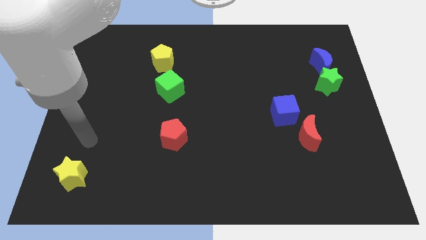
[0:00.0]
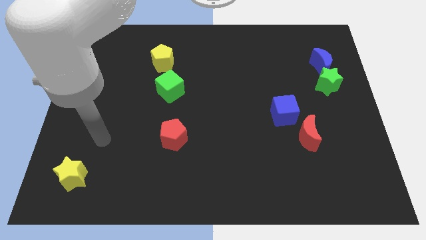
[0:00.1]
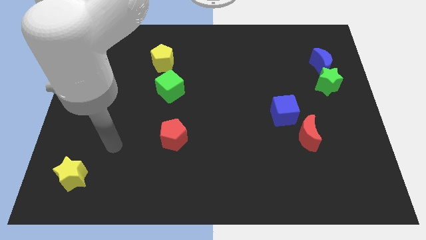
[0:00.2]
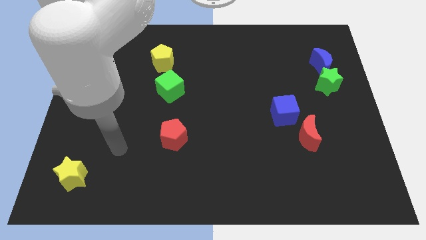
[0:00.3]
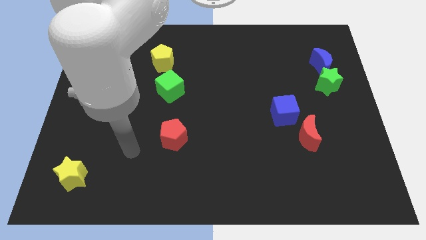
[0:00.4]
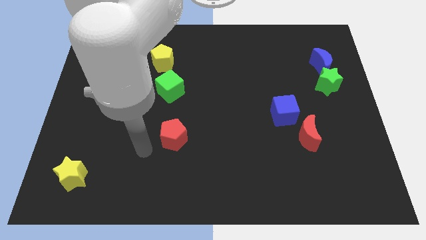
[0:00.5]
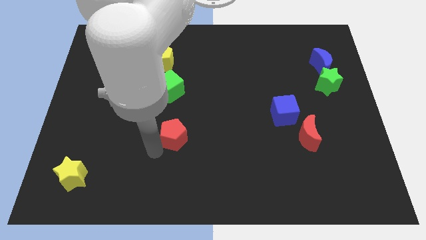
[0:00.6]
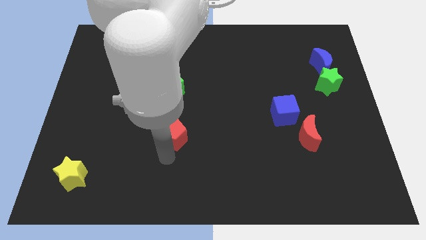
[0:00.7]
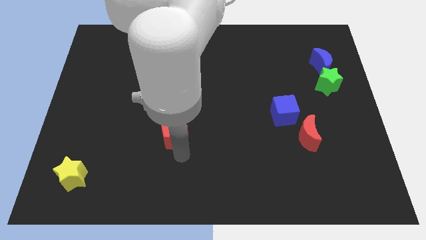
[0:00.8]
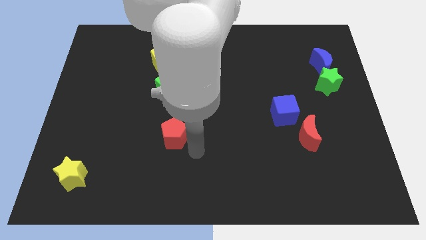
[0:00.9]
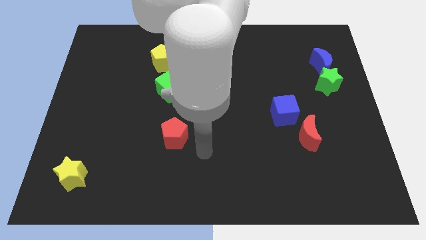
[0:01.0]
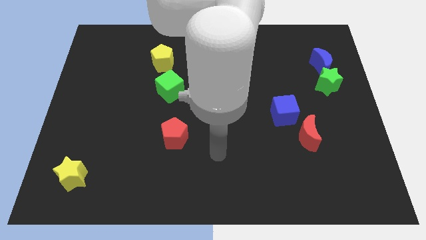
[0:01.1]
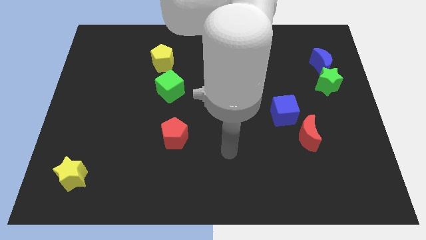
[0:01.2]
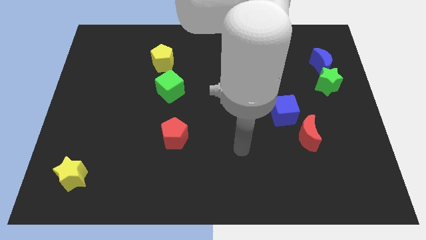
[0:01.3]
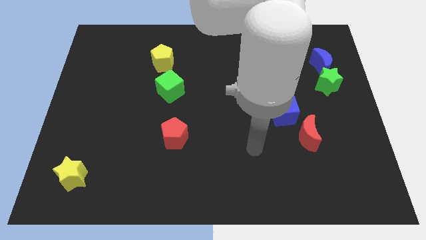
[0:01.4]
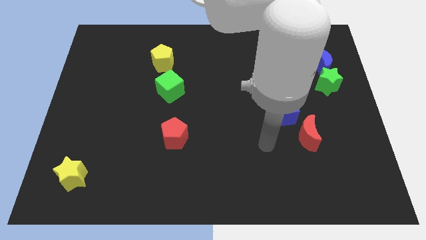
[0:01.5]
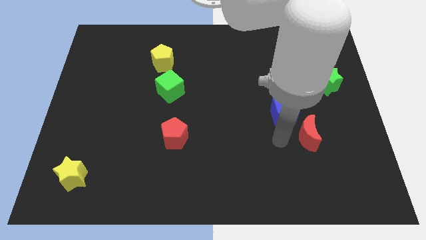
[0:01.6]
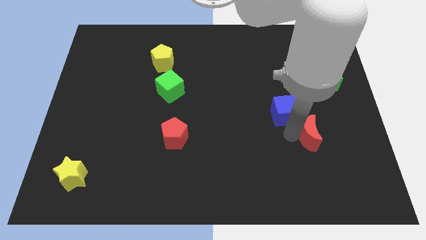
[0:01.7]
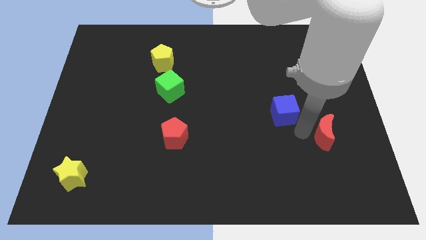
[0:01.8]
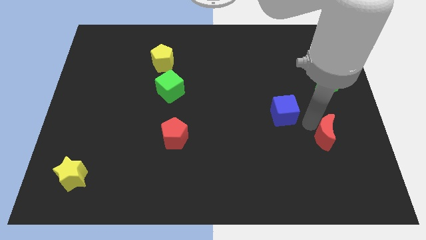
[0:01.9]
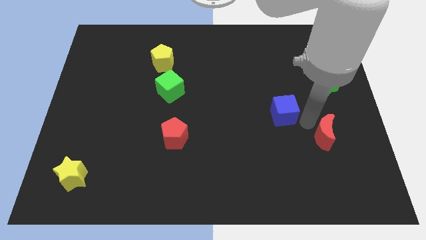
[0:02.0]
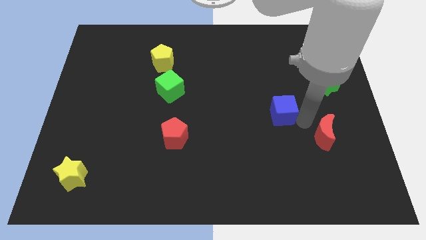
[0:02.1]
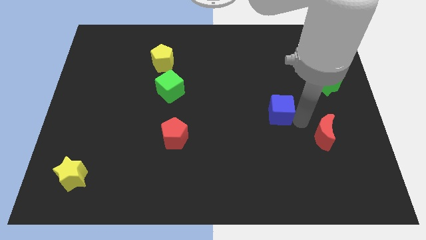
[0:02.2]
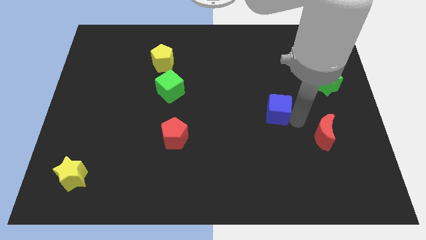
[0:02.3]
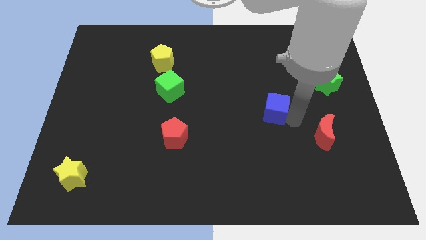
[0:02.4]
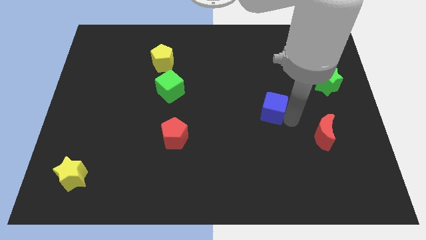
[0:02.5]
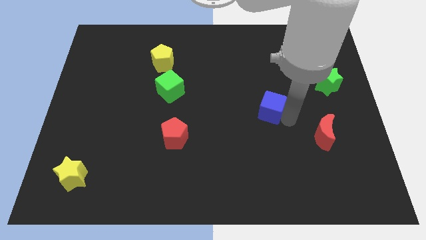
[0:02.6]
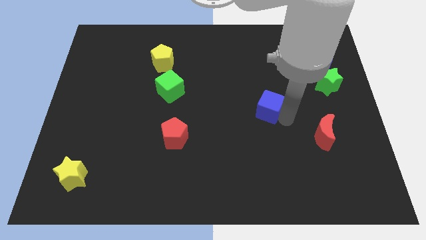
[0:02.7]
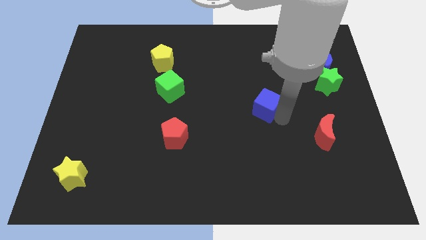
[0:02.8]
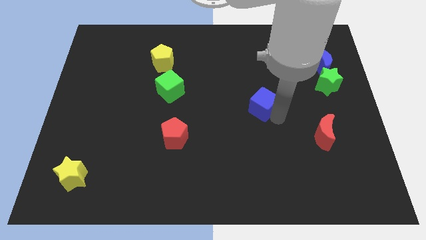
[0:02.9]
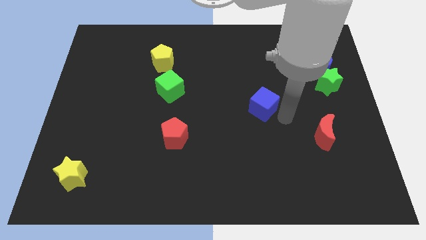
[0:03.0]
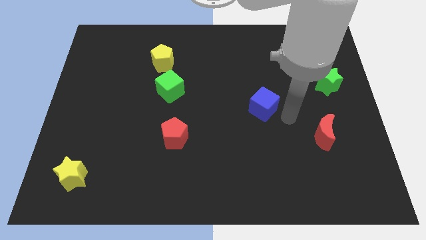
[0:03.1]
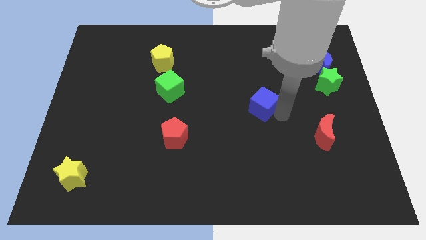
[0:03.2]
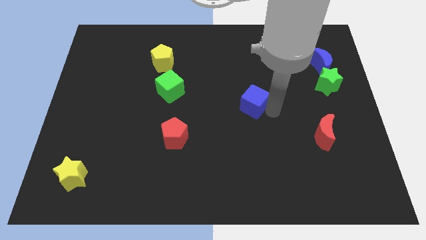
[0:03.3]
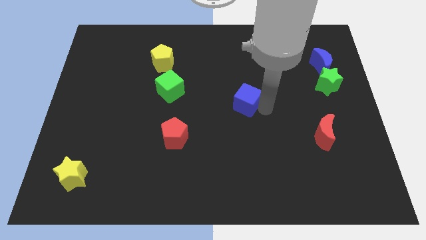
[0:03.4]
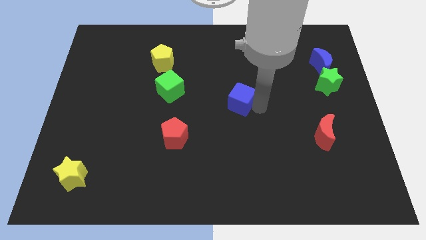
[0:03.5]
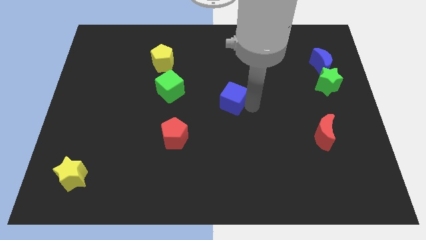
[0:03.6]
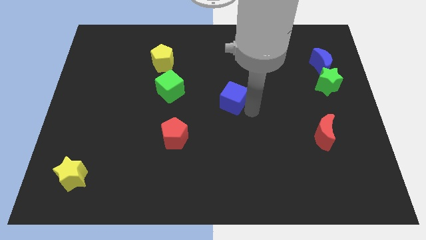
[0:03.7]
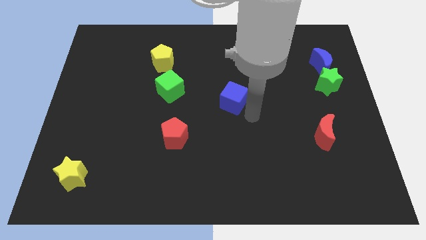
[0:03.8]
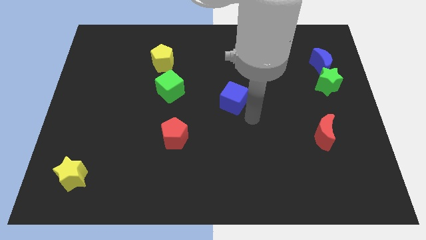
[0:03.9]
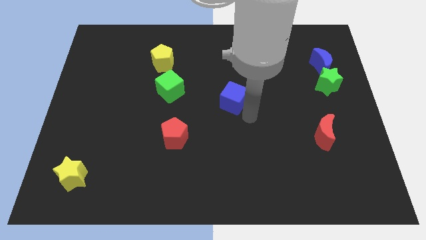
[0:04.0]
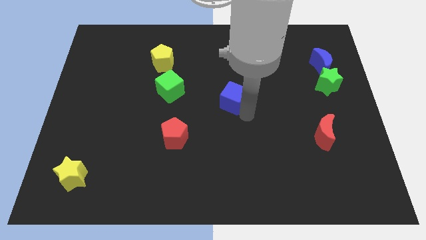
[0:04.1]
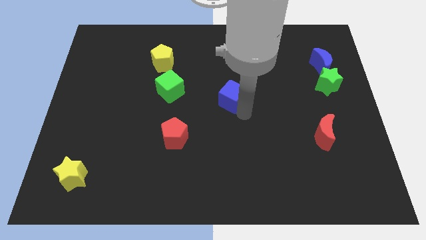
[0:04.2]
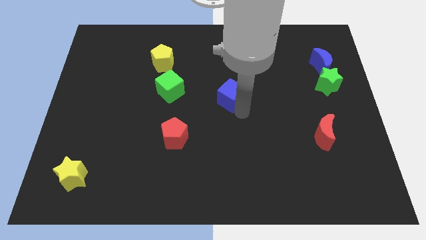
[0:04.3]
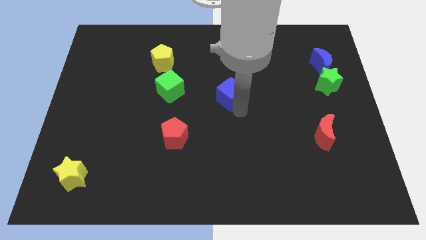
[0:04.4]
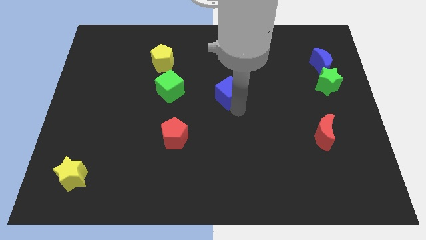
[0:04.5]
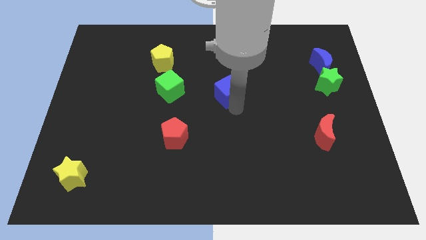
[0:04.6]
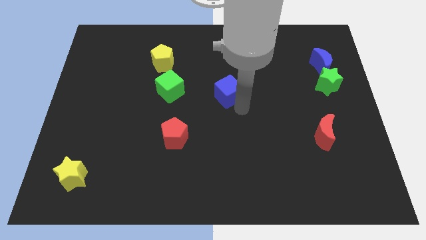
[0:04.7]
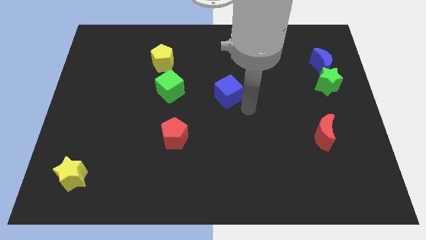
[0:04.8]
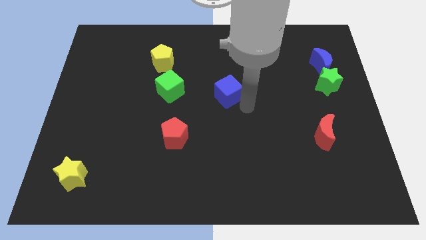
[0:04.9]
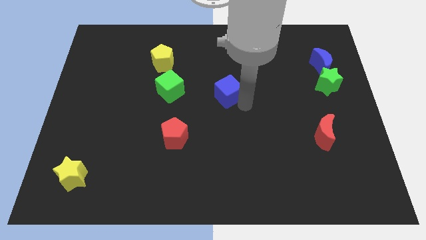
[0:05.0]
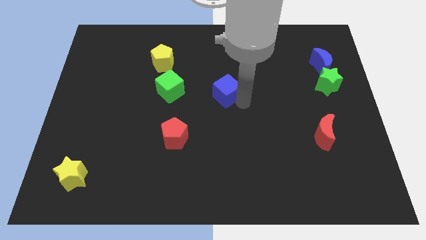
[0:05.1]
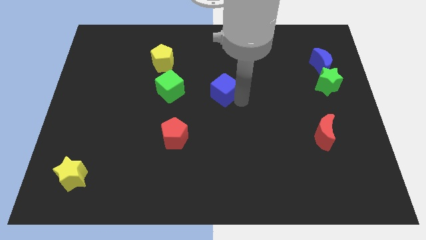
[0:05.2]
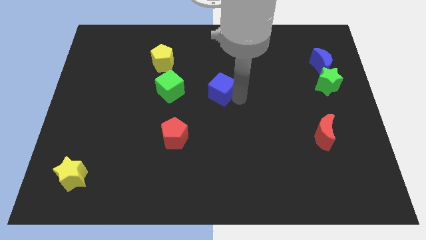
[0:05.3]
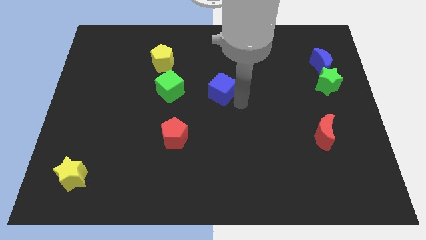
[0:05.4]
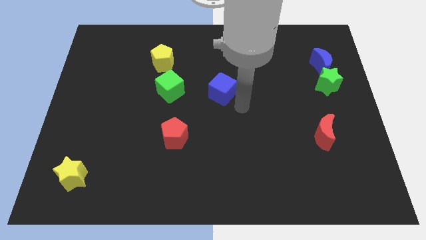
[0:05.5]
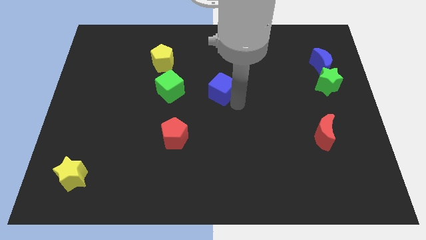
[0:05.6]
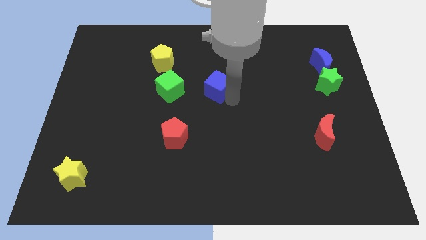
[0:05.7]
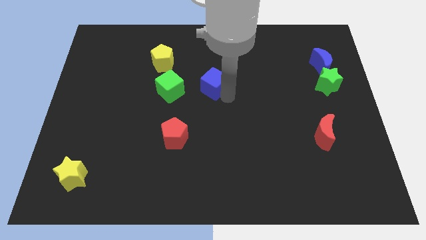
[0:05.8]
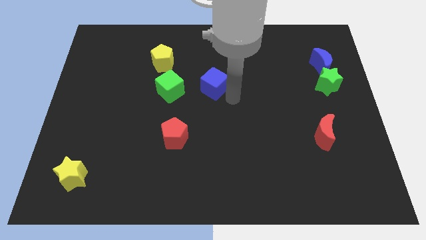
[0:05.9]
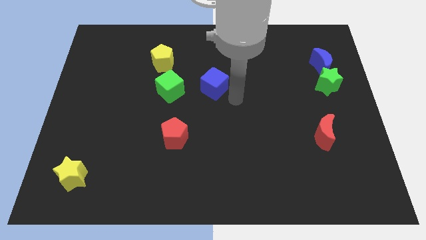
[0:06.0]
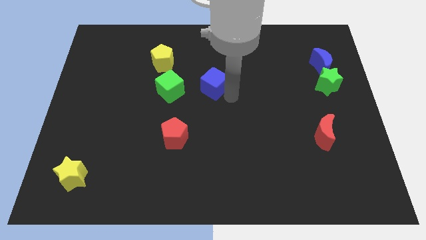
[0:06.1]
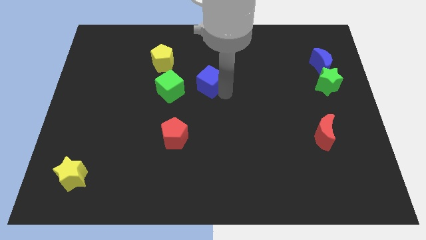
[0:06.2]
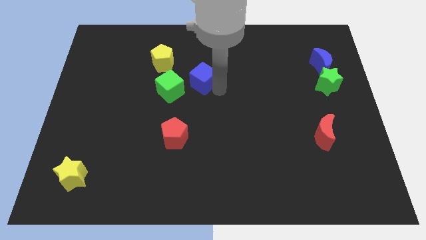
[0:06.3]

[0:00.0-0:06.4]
push the blue cube to the top right side of the green cube

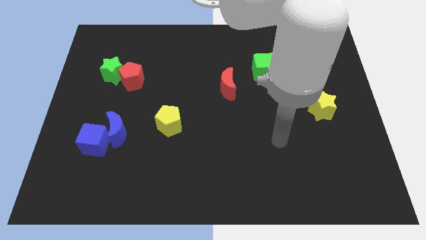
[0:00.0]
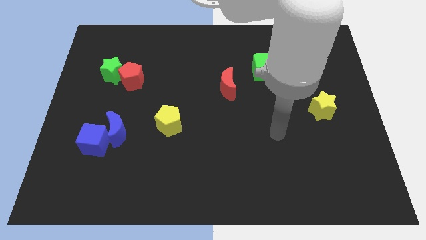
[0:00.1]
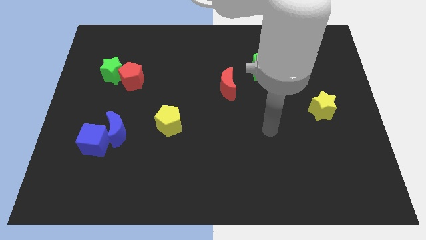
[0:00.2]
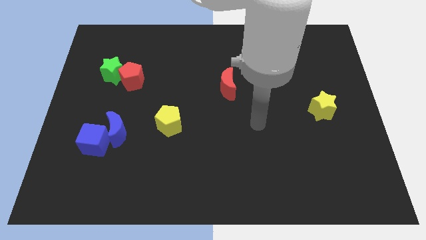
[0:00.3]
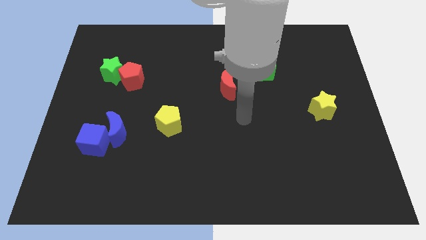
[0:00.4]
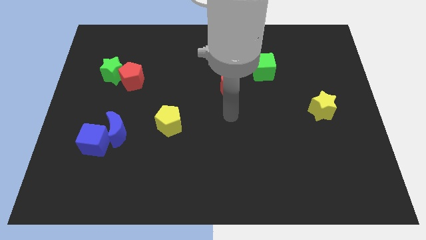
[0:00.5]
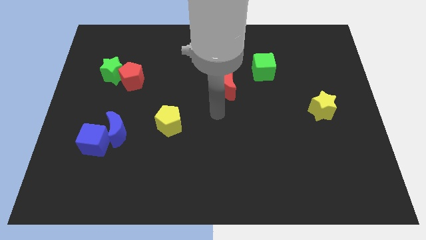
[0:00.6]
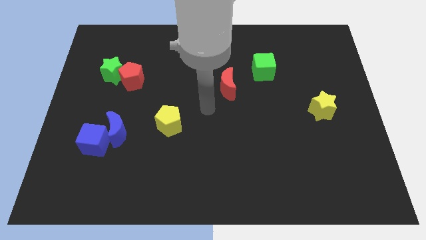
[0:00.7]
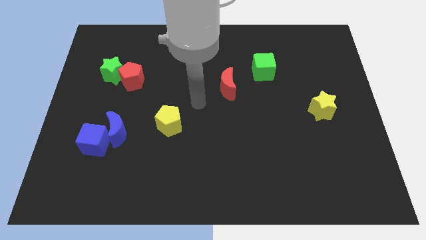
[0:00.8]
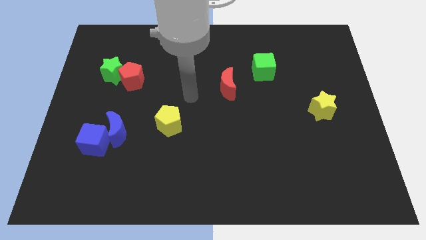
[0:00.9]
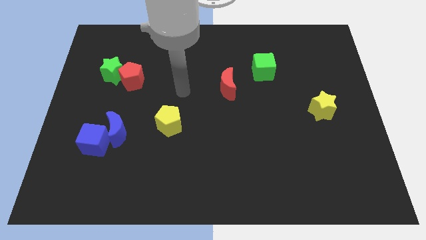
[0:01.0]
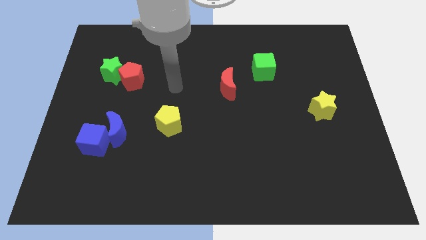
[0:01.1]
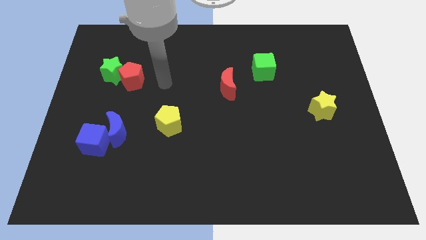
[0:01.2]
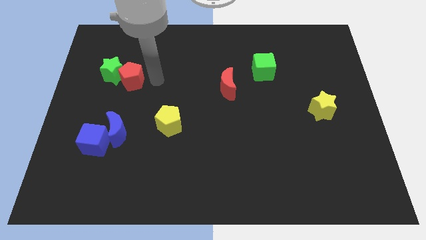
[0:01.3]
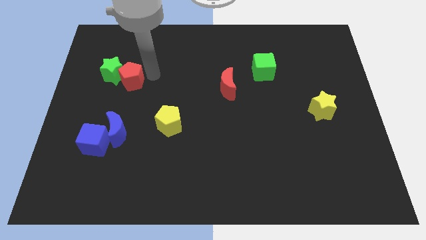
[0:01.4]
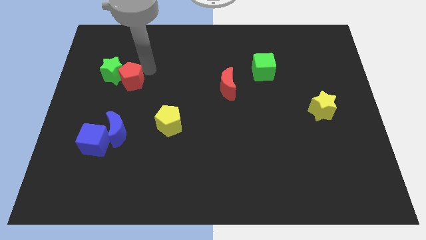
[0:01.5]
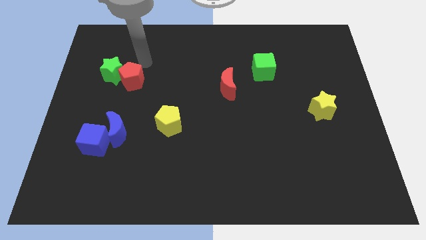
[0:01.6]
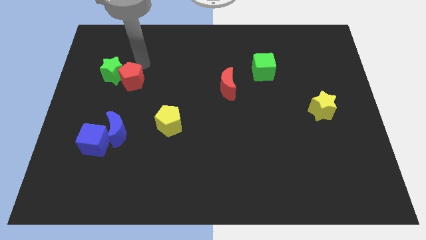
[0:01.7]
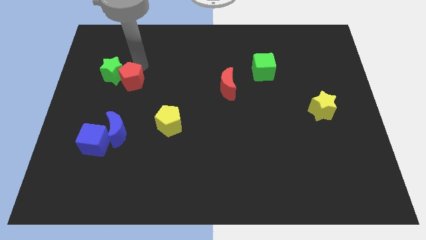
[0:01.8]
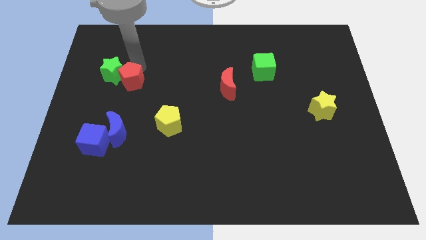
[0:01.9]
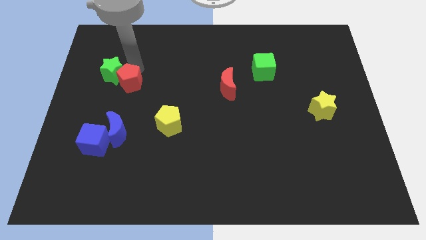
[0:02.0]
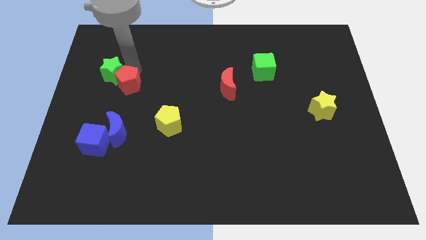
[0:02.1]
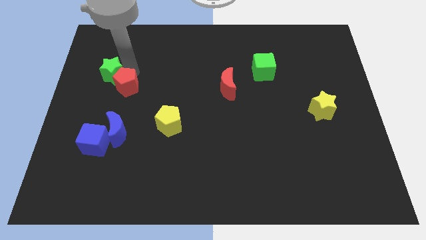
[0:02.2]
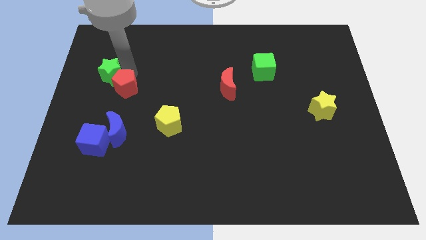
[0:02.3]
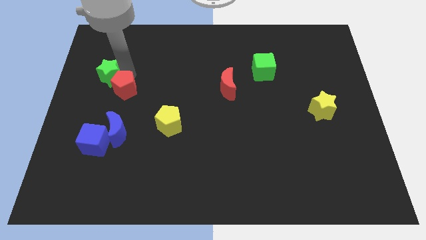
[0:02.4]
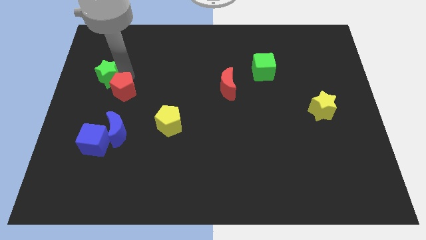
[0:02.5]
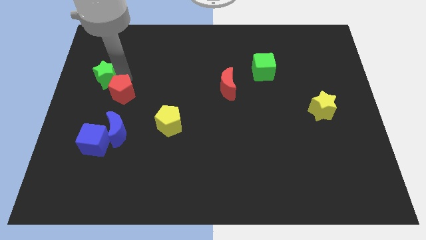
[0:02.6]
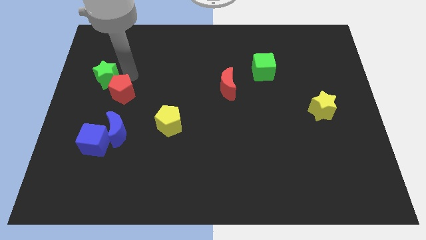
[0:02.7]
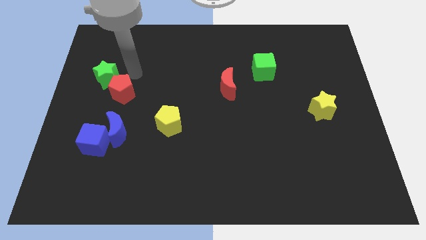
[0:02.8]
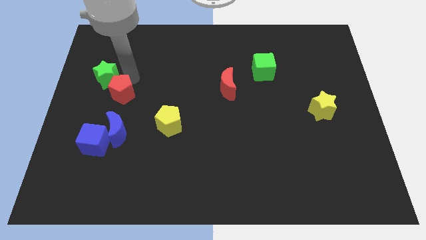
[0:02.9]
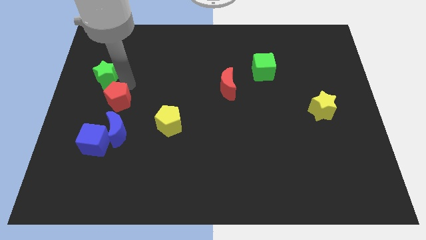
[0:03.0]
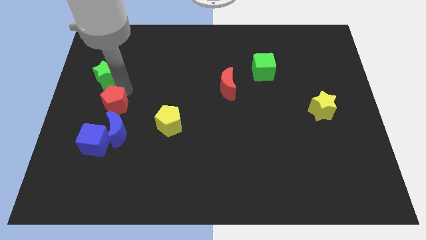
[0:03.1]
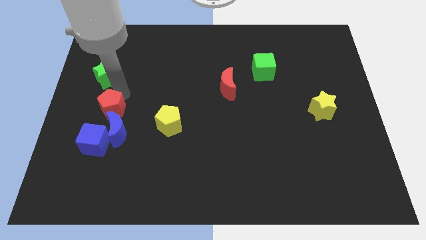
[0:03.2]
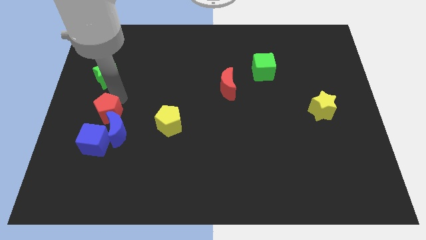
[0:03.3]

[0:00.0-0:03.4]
slide the red pentagon to the left of the yellow pentagon
